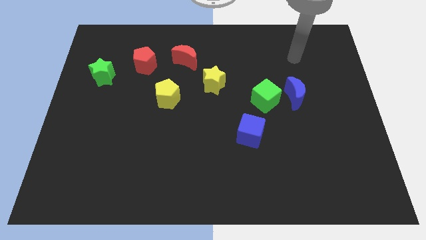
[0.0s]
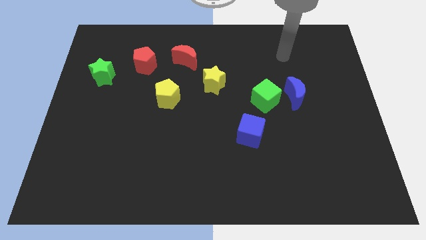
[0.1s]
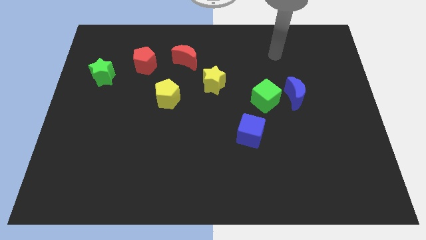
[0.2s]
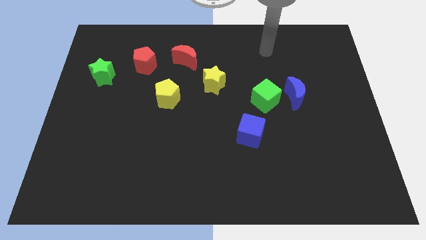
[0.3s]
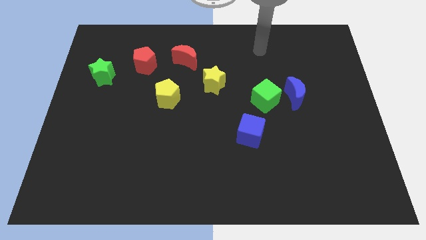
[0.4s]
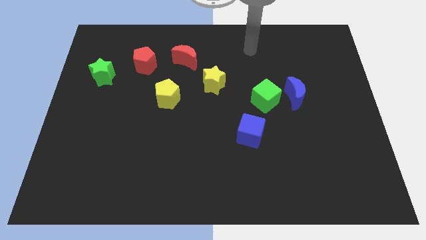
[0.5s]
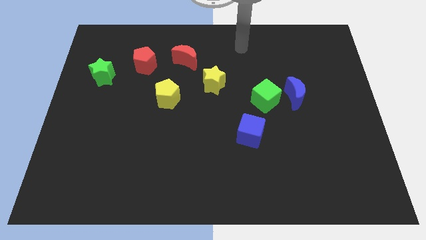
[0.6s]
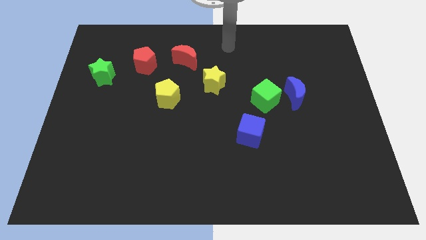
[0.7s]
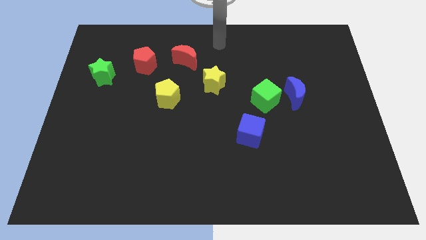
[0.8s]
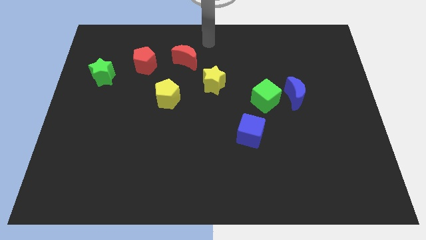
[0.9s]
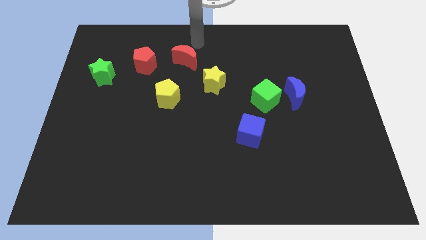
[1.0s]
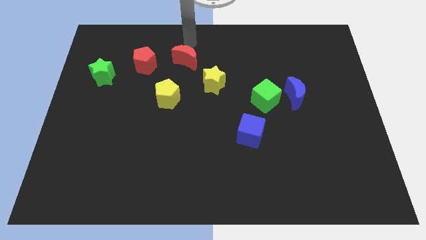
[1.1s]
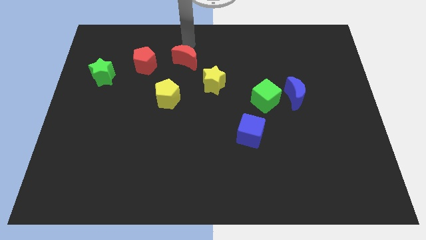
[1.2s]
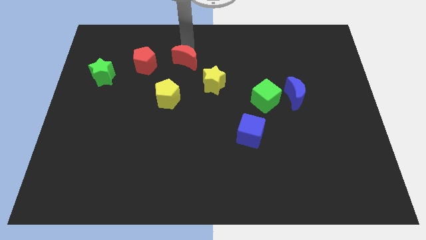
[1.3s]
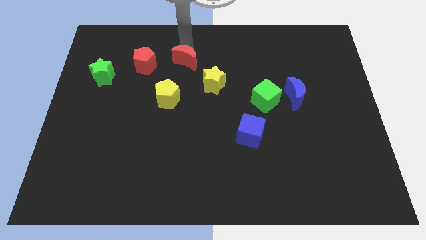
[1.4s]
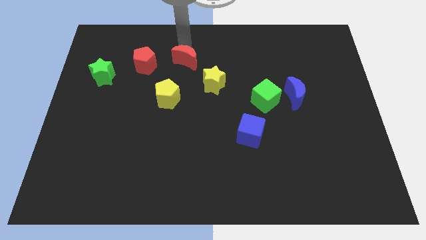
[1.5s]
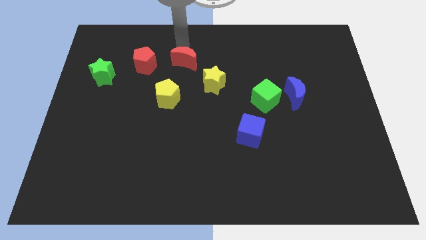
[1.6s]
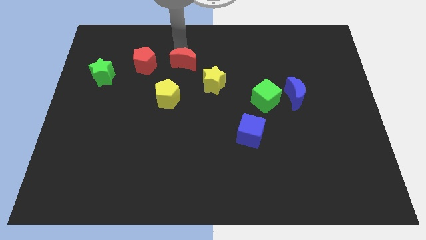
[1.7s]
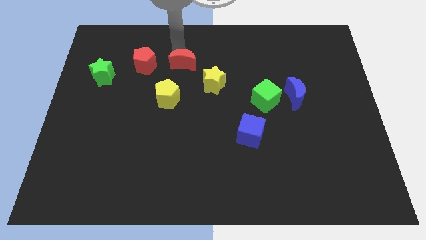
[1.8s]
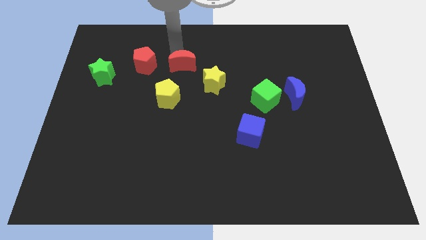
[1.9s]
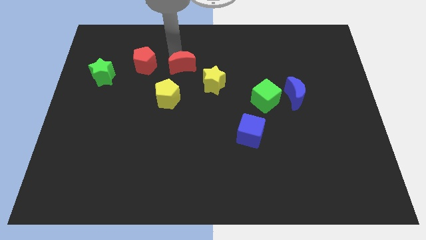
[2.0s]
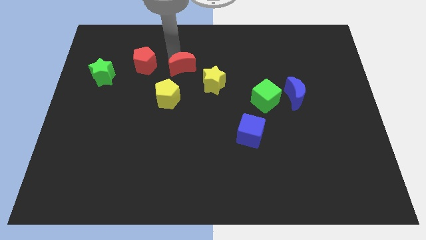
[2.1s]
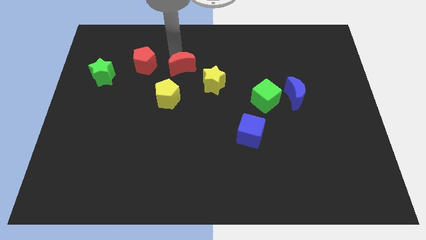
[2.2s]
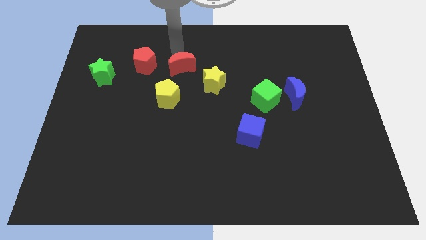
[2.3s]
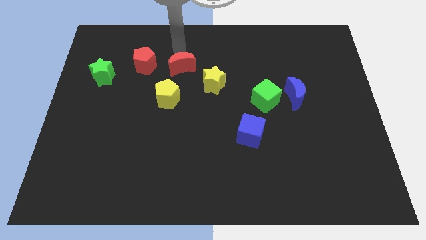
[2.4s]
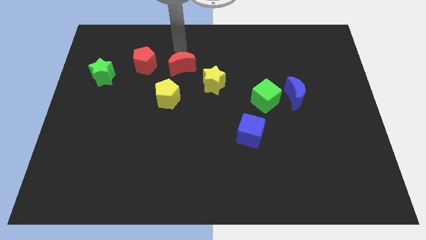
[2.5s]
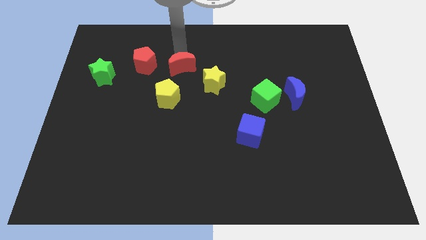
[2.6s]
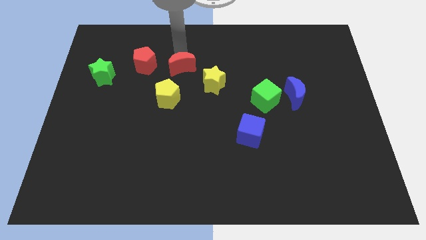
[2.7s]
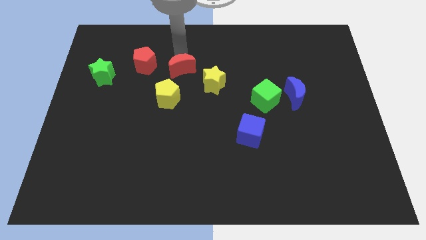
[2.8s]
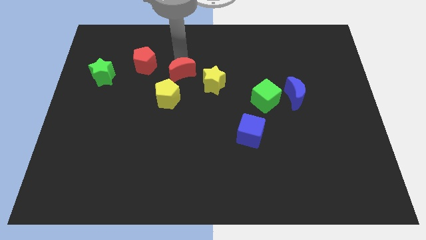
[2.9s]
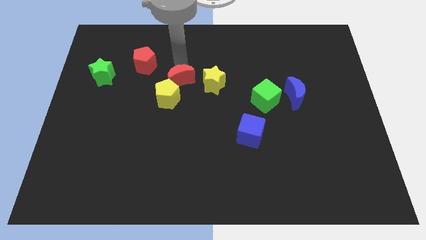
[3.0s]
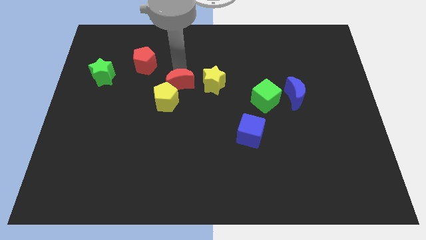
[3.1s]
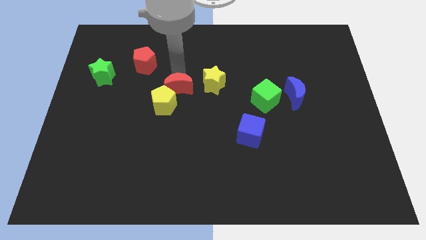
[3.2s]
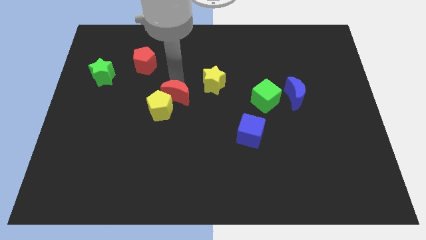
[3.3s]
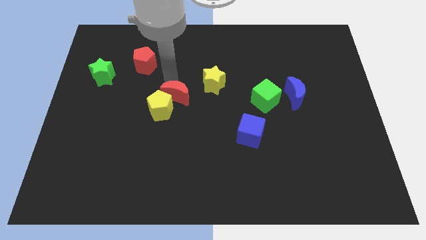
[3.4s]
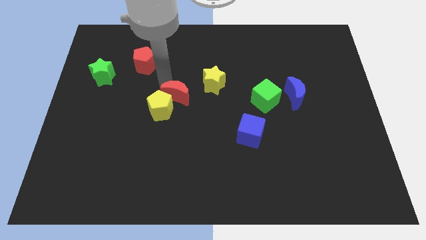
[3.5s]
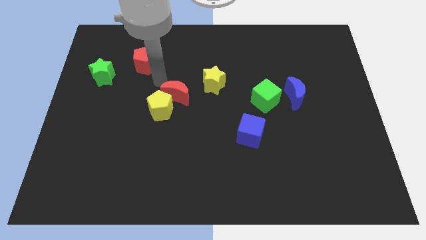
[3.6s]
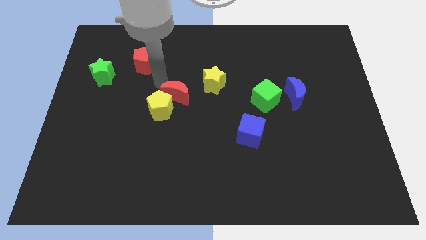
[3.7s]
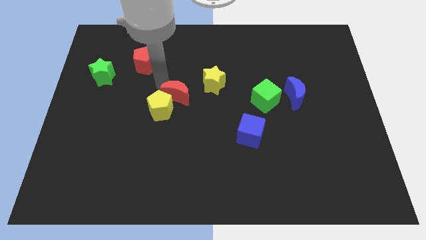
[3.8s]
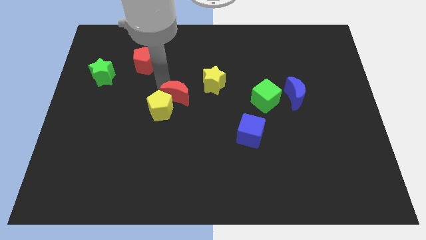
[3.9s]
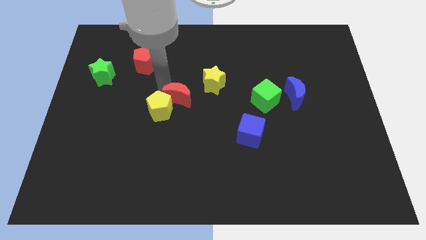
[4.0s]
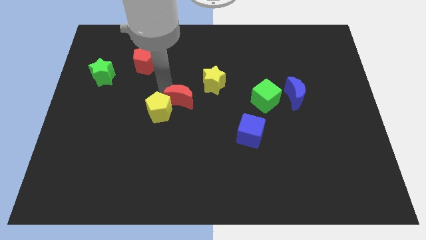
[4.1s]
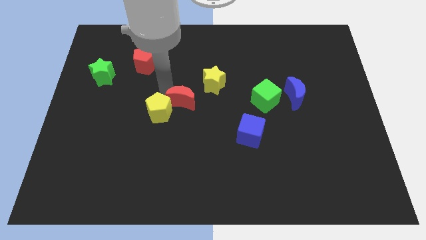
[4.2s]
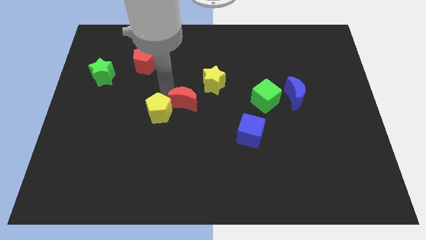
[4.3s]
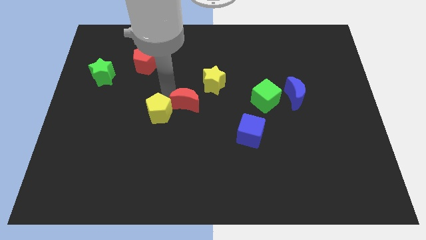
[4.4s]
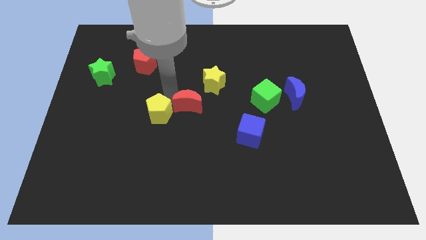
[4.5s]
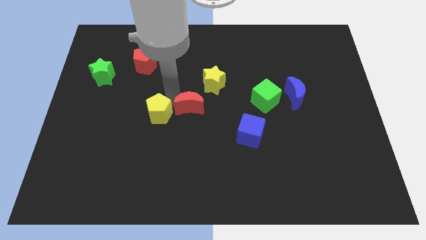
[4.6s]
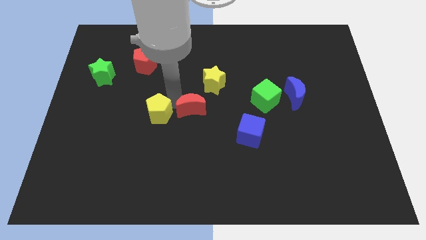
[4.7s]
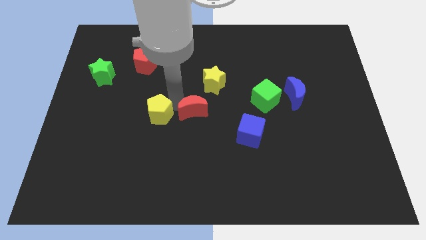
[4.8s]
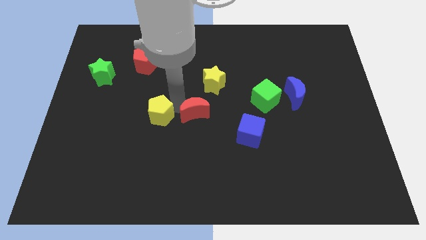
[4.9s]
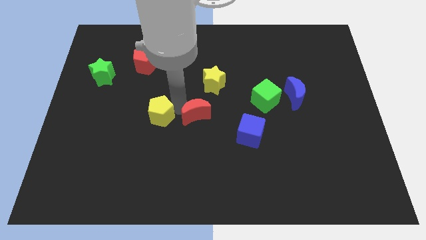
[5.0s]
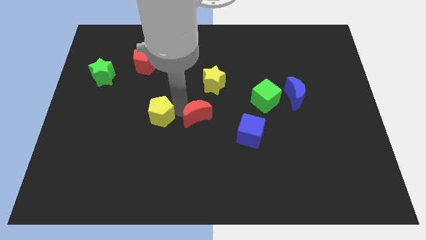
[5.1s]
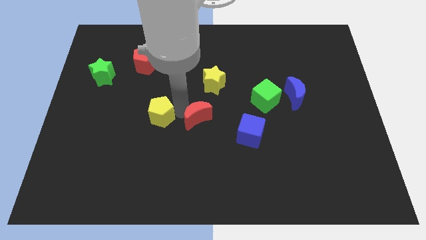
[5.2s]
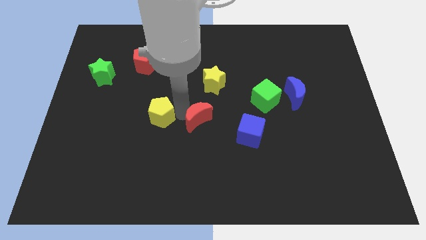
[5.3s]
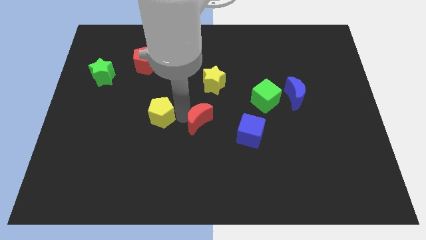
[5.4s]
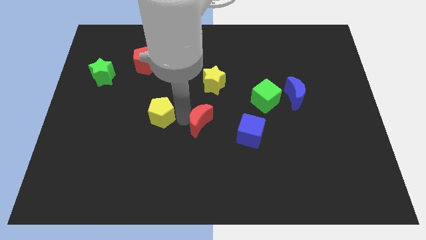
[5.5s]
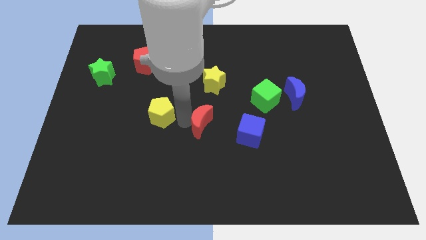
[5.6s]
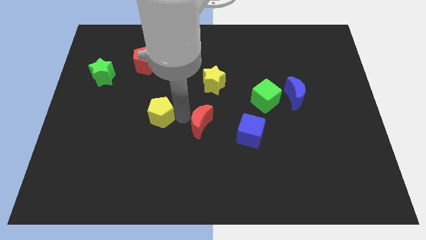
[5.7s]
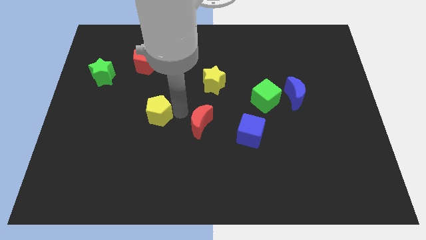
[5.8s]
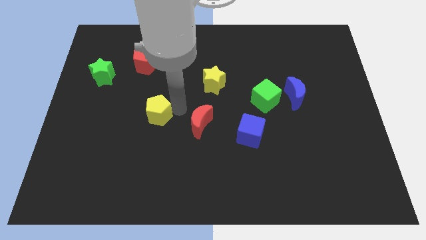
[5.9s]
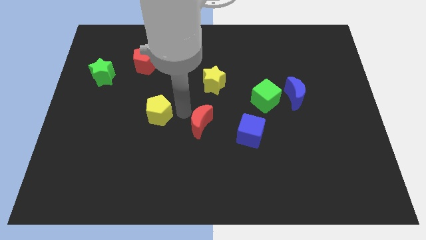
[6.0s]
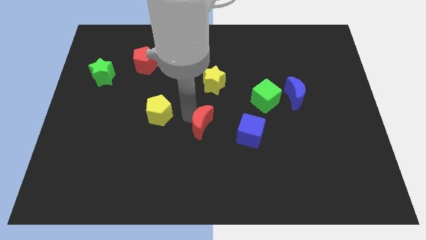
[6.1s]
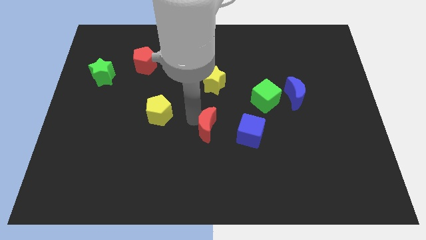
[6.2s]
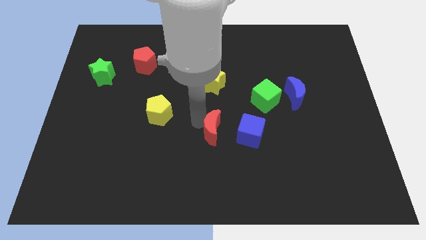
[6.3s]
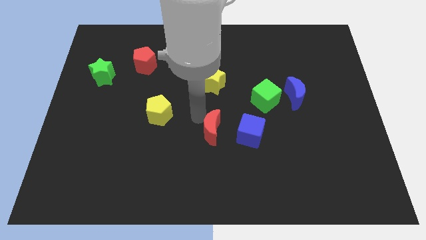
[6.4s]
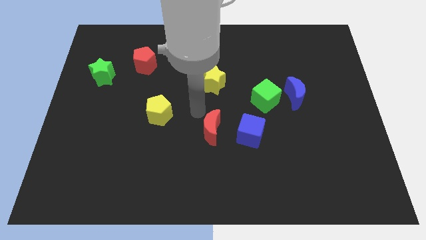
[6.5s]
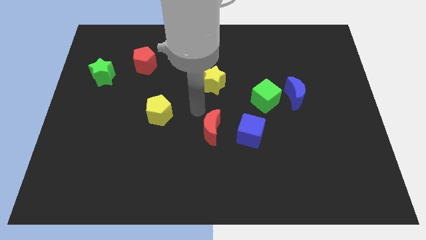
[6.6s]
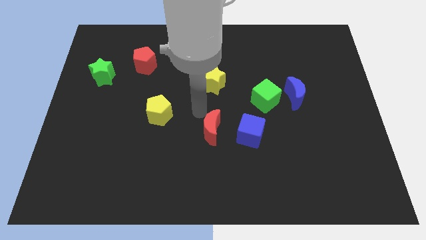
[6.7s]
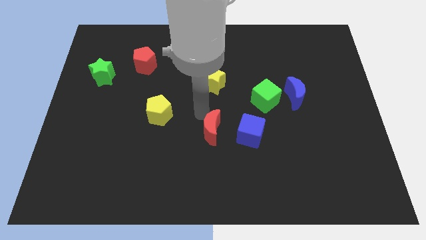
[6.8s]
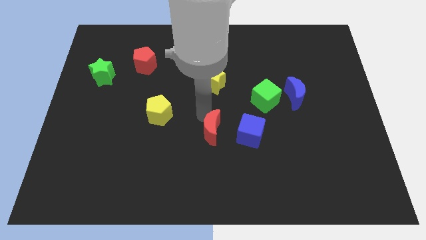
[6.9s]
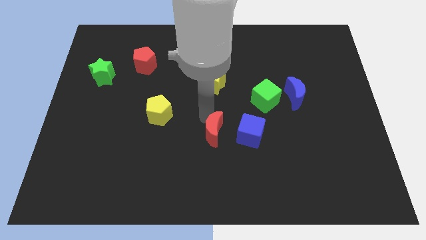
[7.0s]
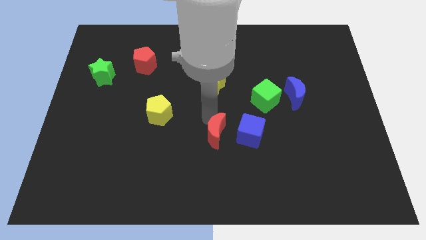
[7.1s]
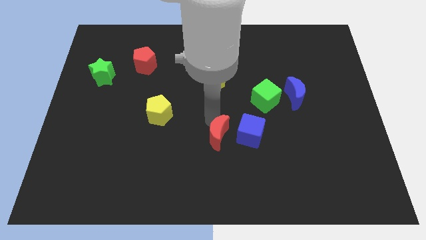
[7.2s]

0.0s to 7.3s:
slide the red moon diagonally down and to the left of the blue cube

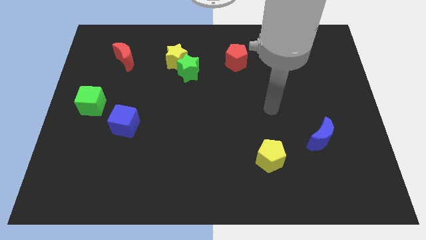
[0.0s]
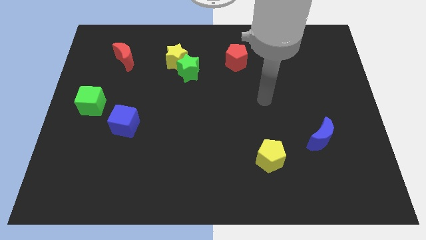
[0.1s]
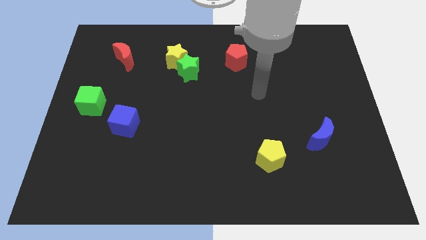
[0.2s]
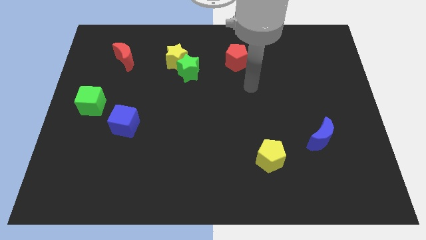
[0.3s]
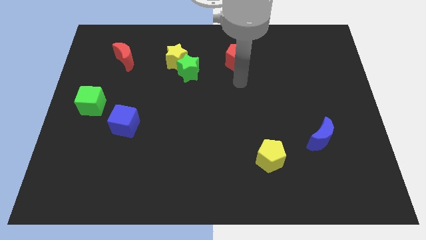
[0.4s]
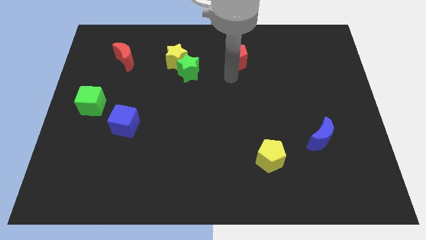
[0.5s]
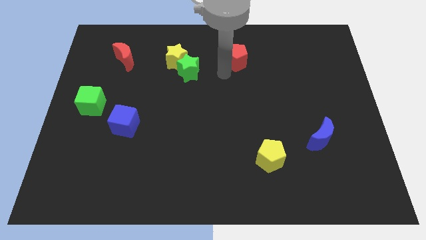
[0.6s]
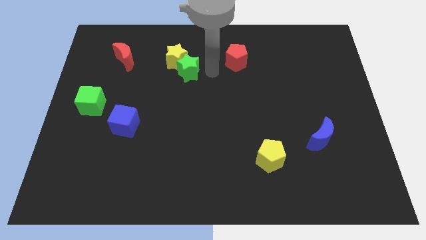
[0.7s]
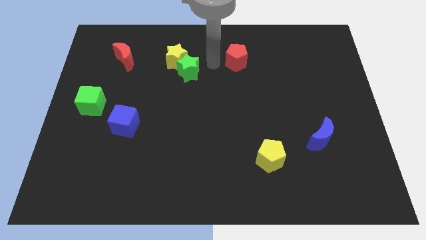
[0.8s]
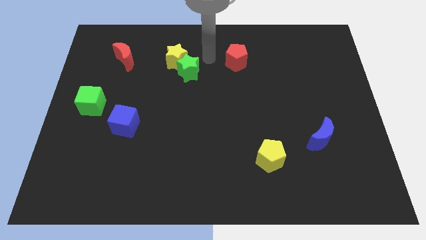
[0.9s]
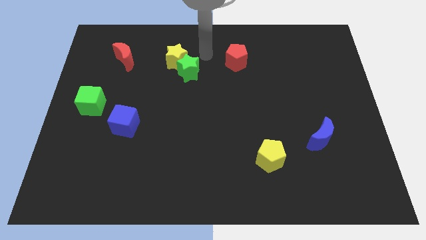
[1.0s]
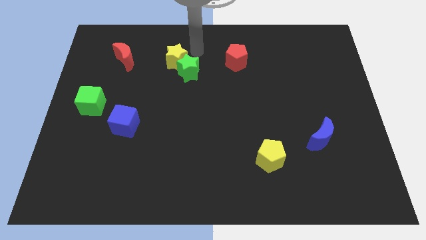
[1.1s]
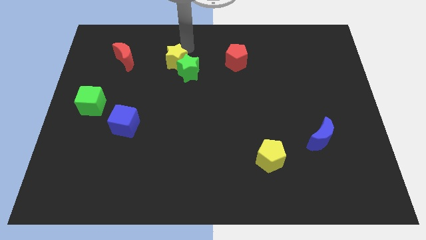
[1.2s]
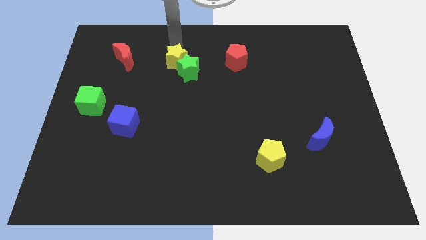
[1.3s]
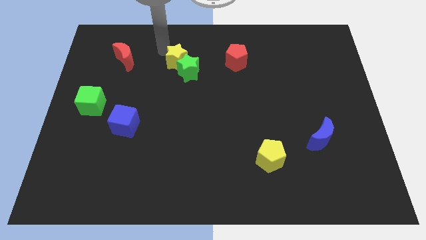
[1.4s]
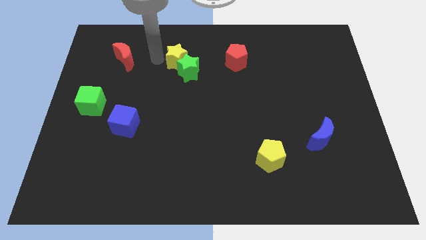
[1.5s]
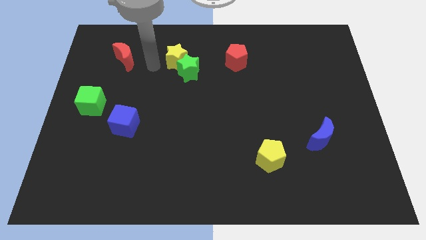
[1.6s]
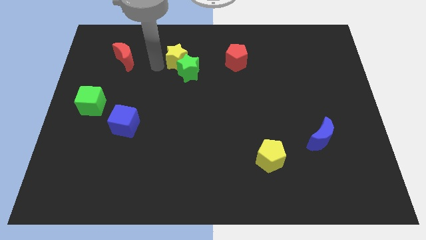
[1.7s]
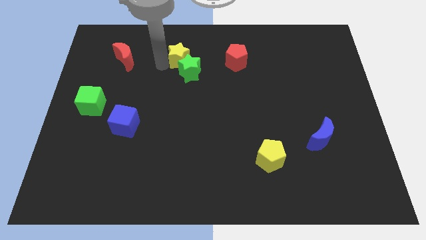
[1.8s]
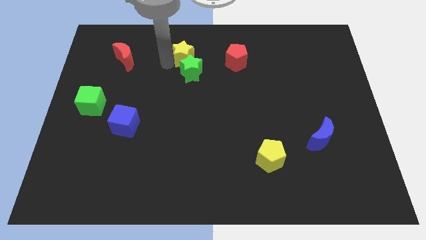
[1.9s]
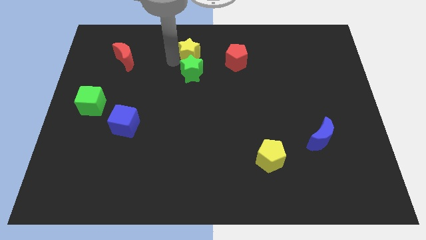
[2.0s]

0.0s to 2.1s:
push the yellow star to the top right side of the green star
